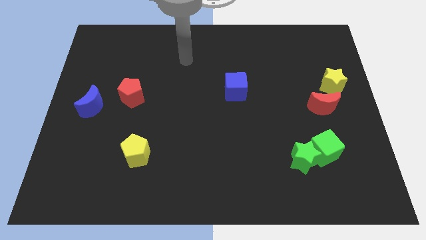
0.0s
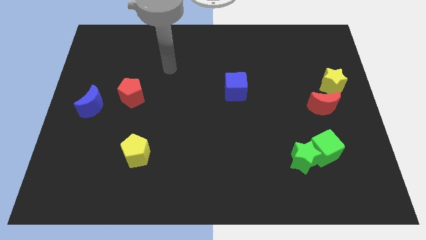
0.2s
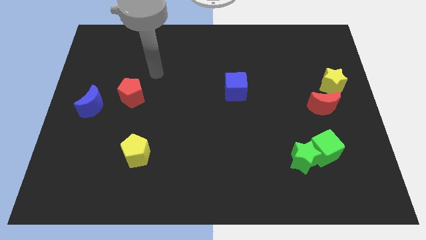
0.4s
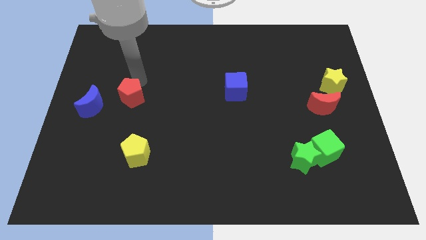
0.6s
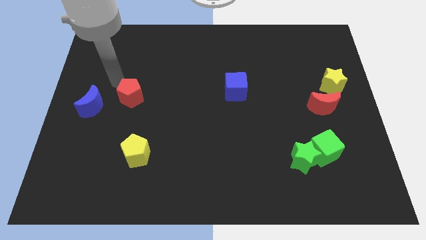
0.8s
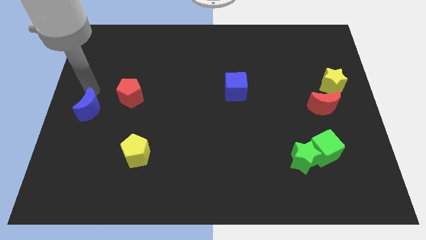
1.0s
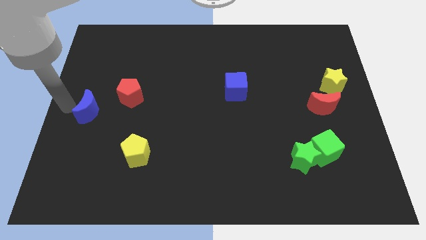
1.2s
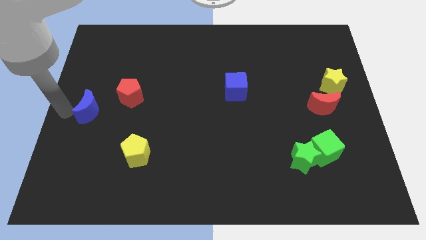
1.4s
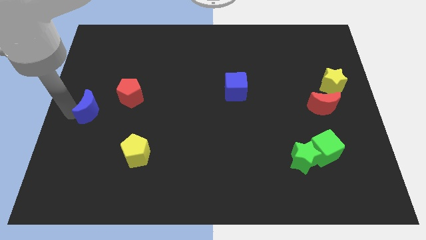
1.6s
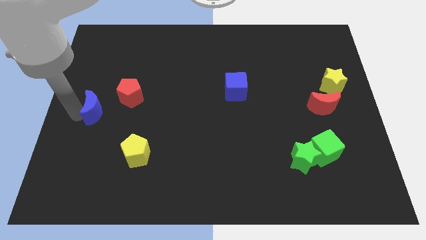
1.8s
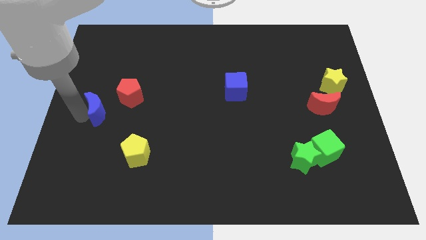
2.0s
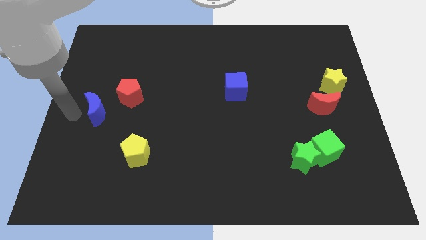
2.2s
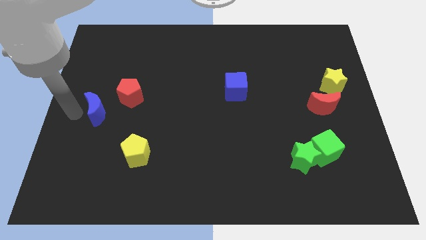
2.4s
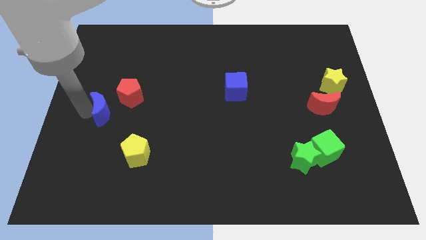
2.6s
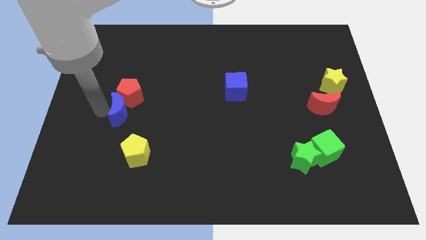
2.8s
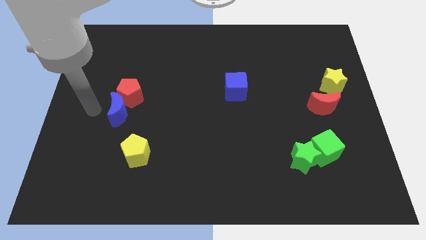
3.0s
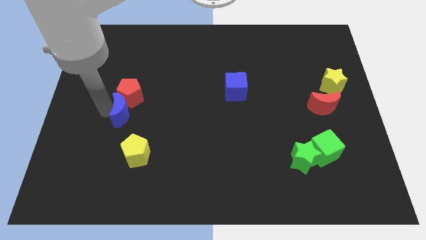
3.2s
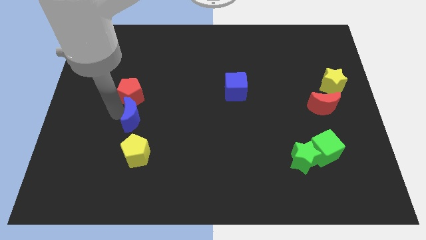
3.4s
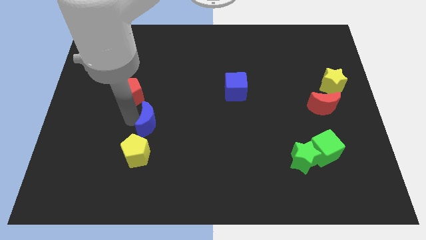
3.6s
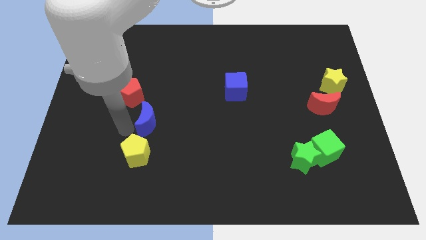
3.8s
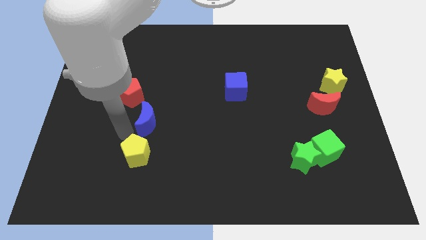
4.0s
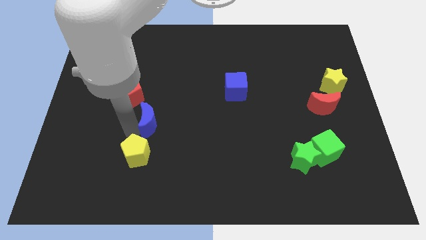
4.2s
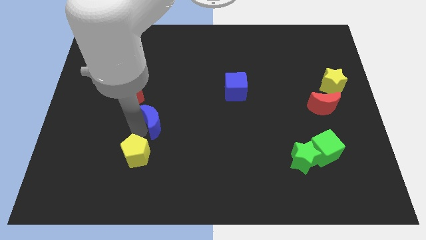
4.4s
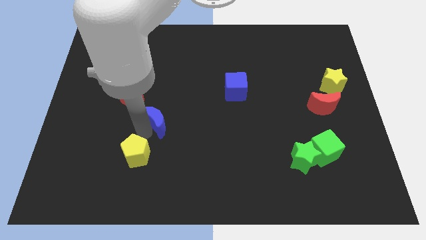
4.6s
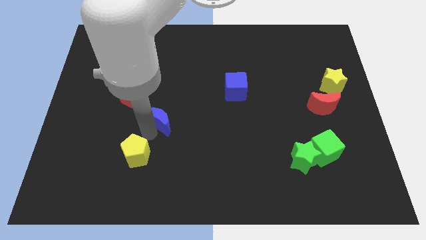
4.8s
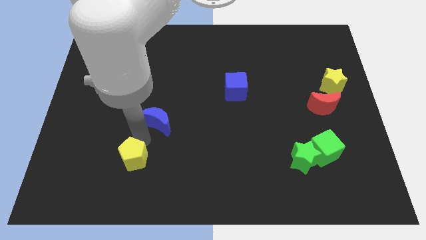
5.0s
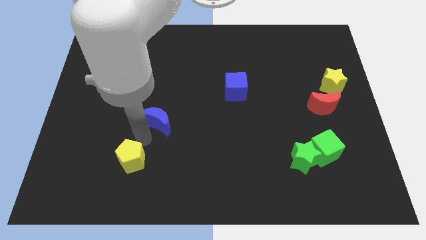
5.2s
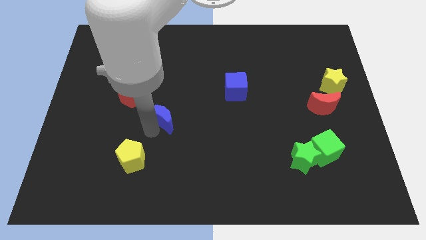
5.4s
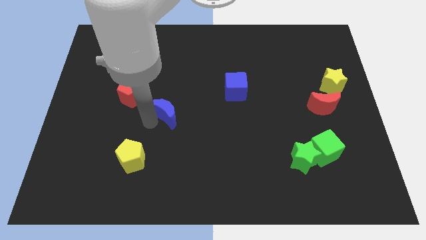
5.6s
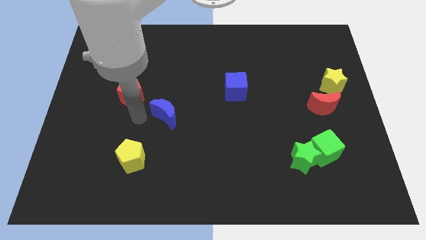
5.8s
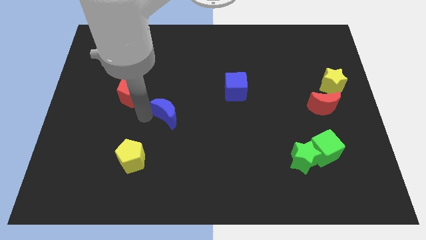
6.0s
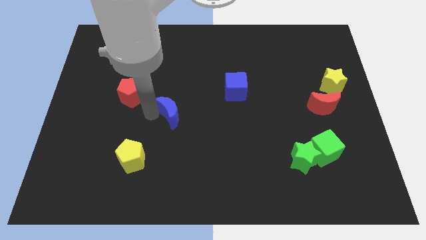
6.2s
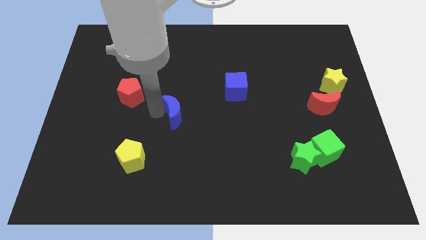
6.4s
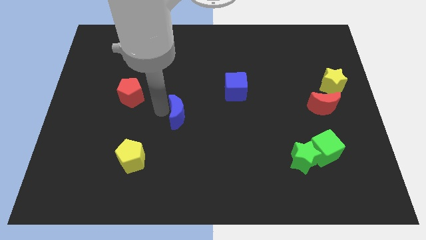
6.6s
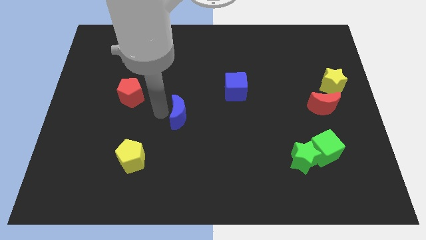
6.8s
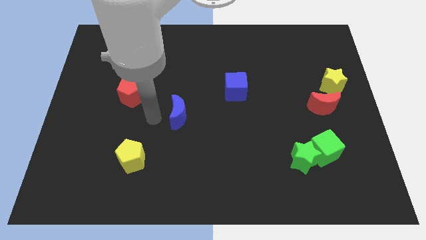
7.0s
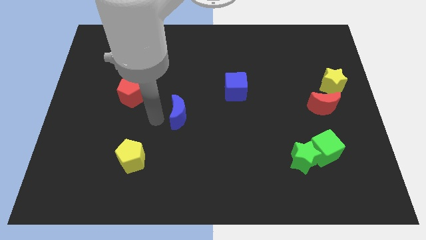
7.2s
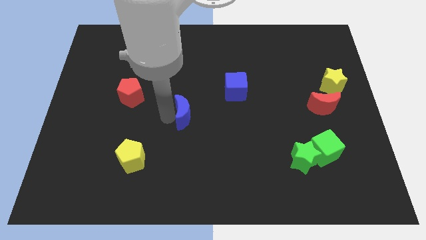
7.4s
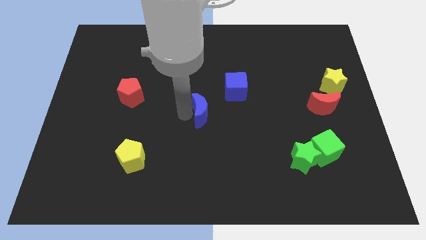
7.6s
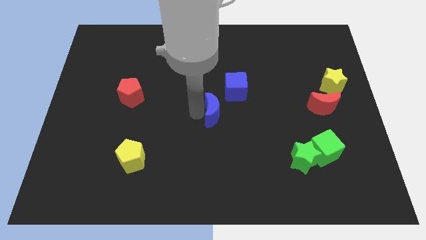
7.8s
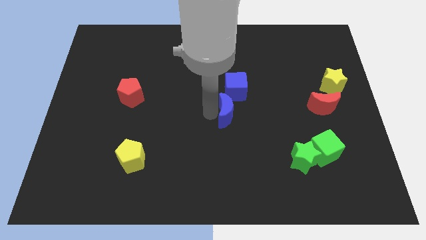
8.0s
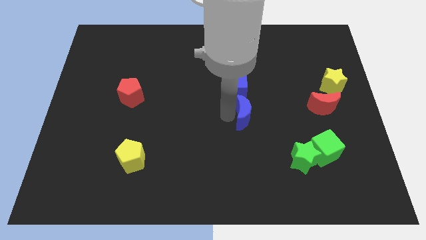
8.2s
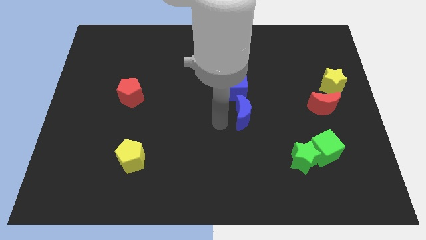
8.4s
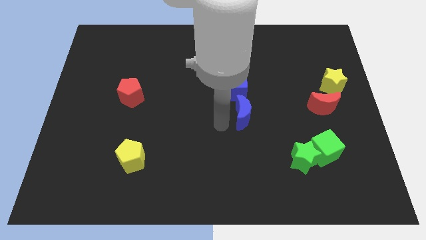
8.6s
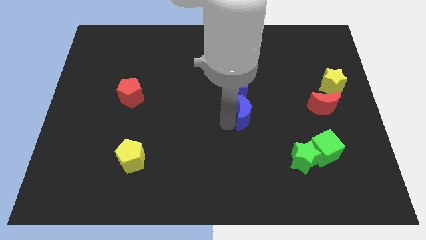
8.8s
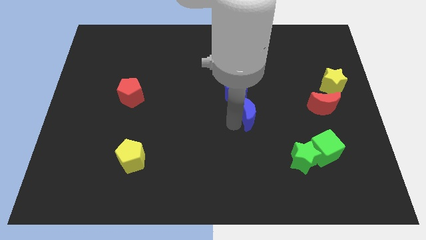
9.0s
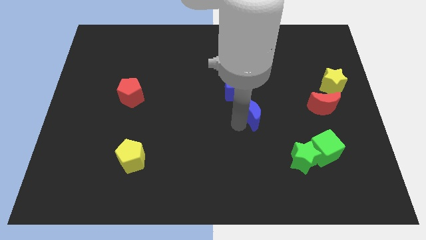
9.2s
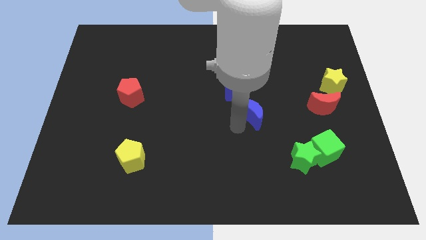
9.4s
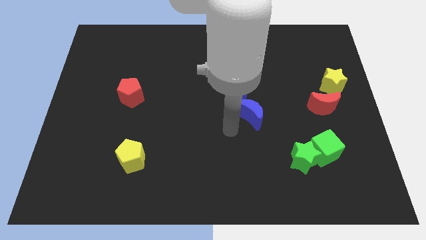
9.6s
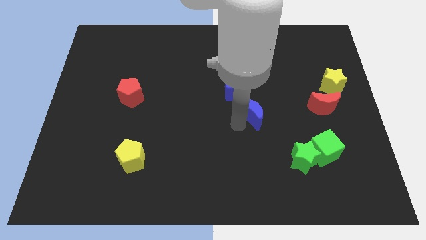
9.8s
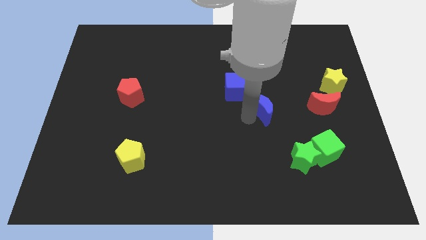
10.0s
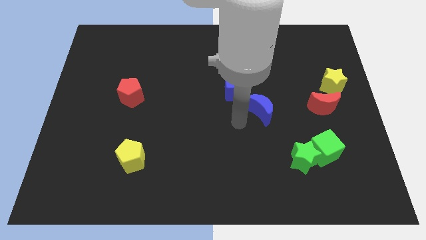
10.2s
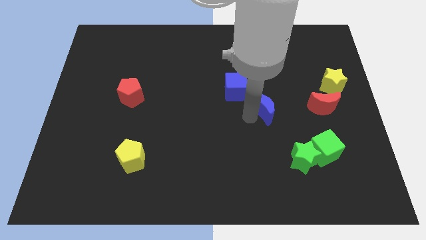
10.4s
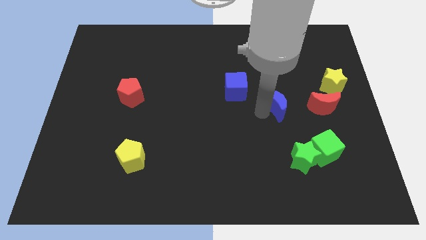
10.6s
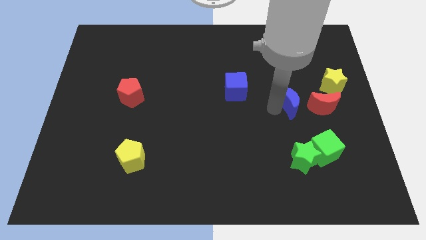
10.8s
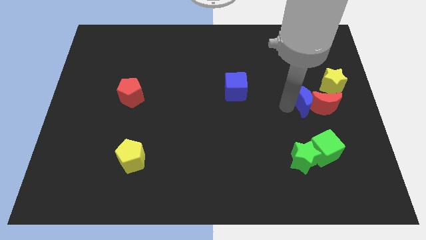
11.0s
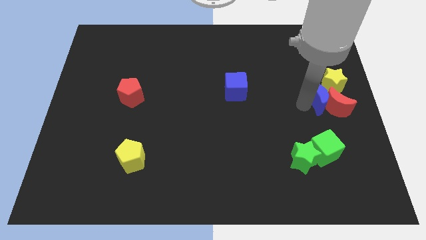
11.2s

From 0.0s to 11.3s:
move the blue moon next to the yellow star

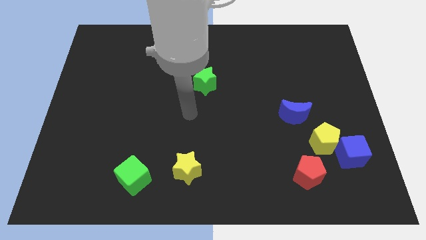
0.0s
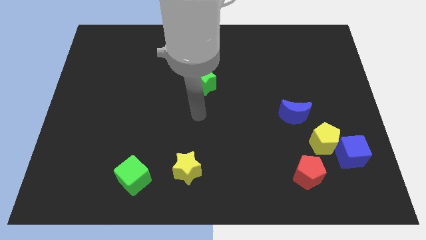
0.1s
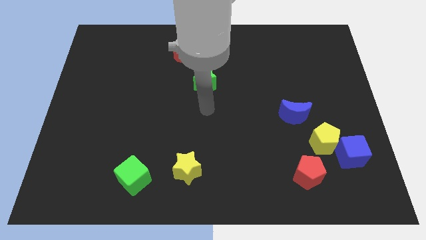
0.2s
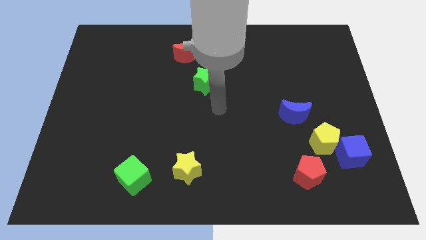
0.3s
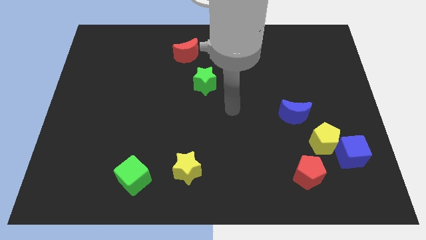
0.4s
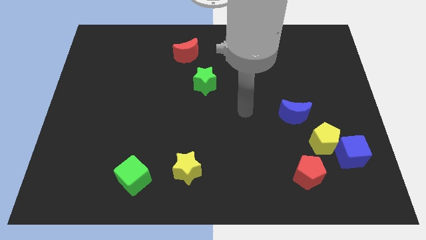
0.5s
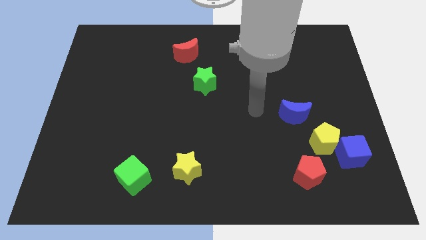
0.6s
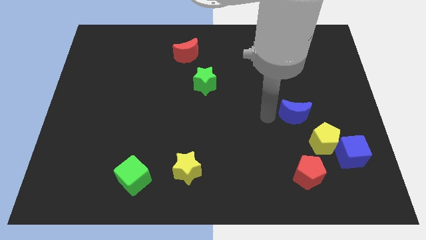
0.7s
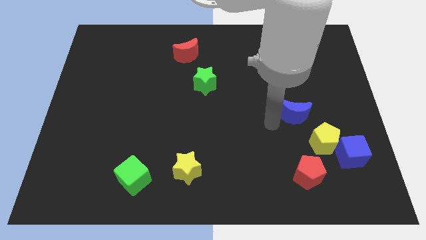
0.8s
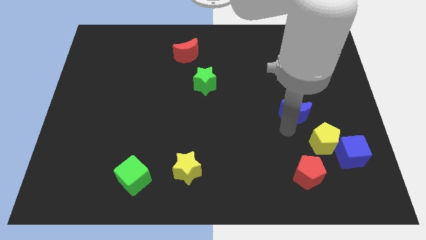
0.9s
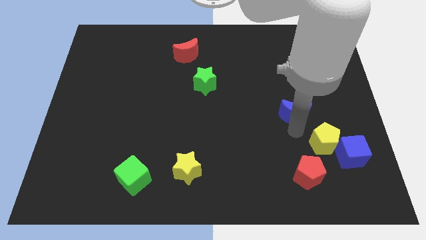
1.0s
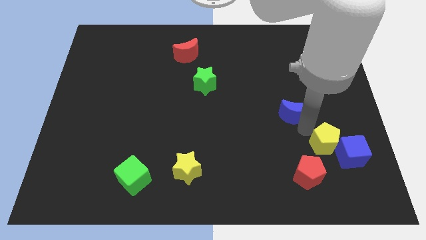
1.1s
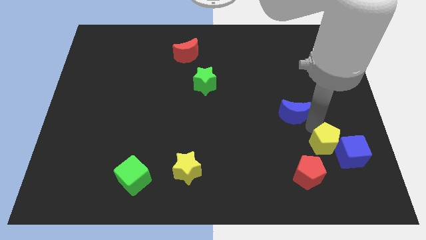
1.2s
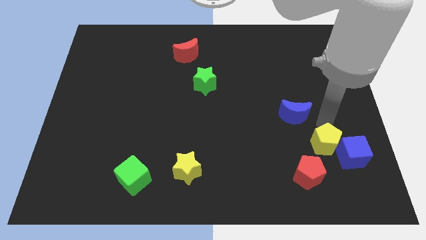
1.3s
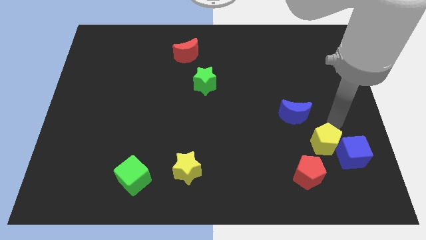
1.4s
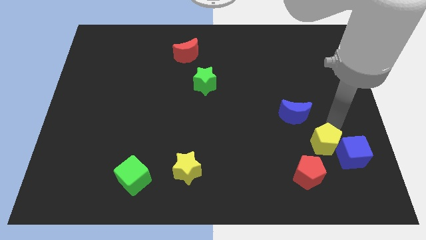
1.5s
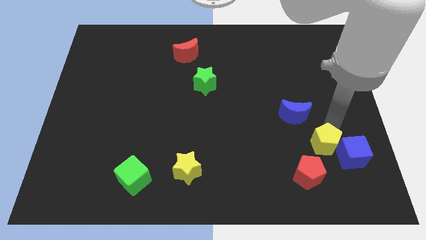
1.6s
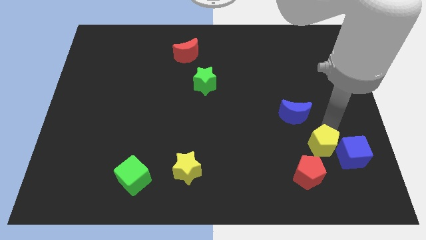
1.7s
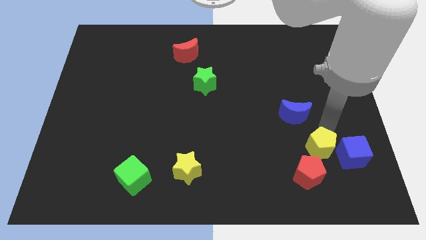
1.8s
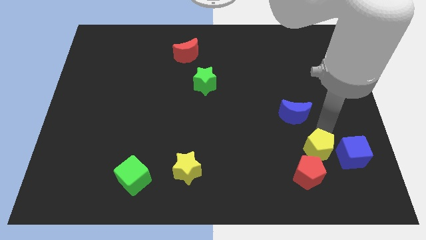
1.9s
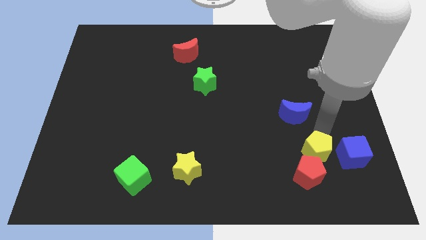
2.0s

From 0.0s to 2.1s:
slide the yellow pentagon close to the red pentagon
